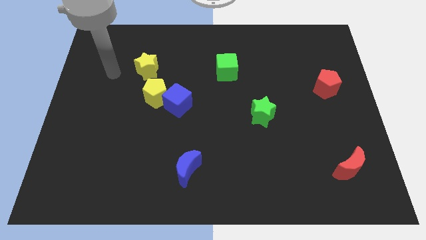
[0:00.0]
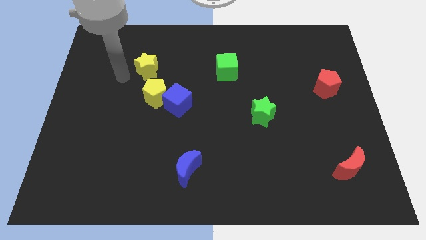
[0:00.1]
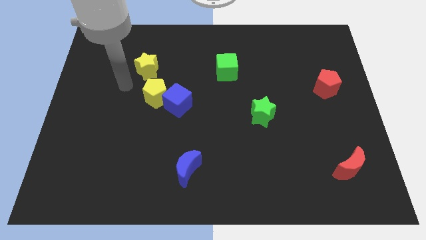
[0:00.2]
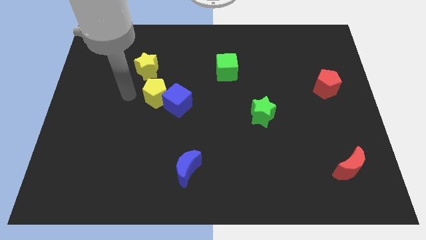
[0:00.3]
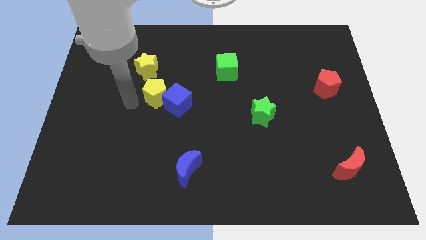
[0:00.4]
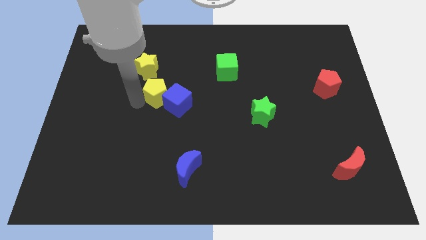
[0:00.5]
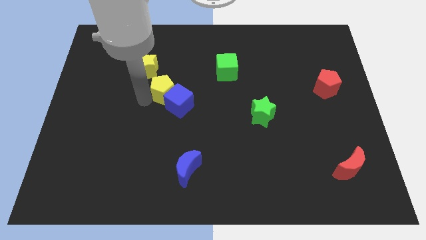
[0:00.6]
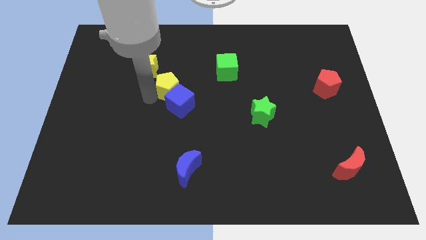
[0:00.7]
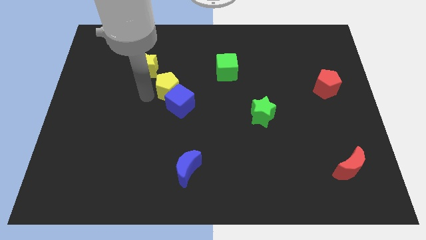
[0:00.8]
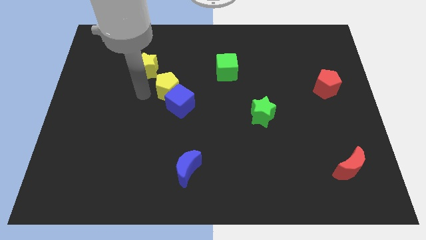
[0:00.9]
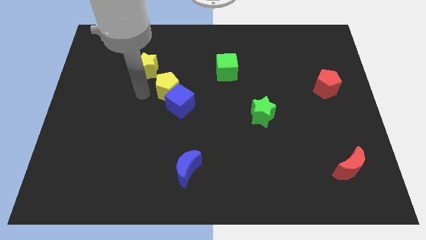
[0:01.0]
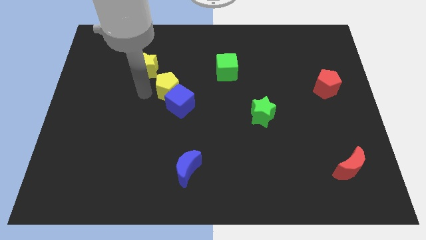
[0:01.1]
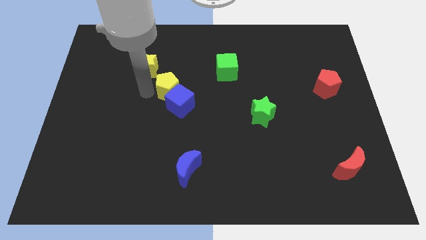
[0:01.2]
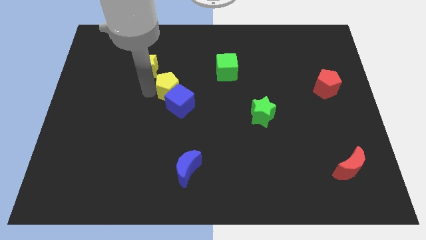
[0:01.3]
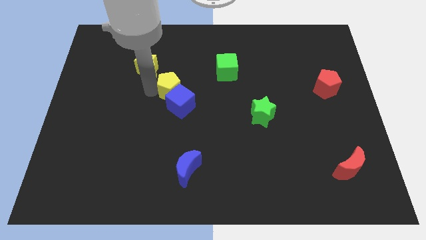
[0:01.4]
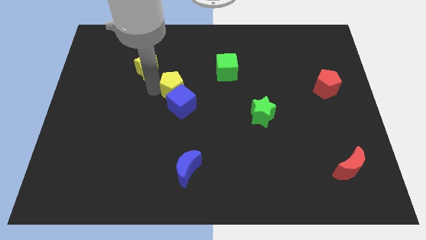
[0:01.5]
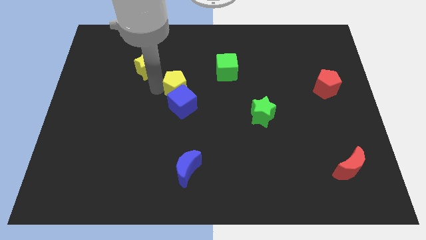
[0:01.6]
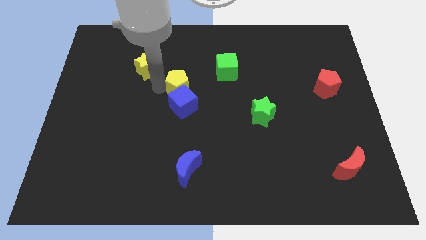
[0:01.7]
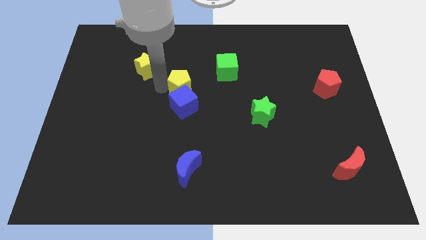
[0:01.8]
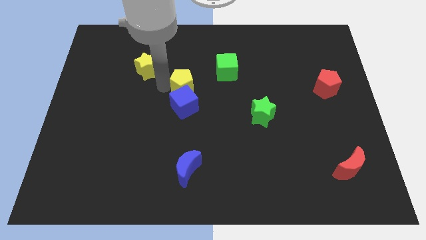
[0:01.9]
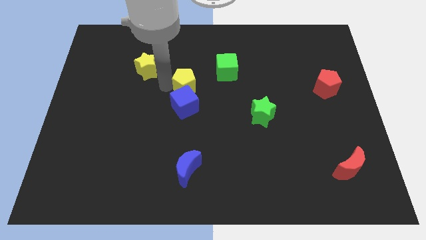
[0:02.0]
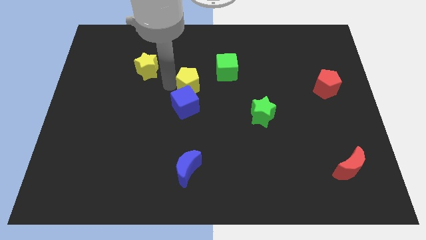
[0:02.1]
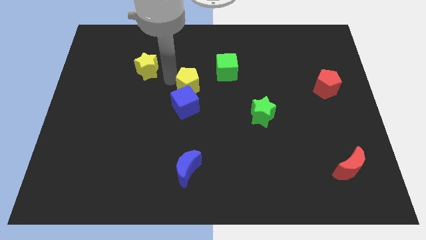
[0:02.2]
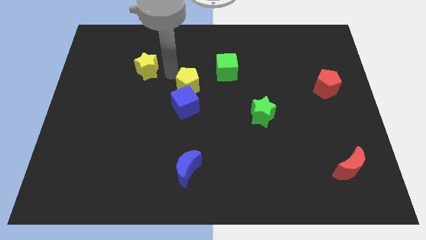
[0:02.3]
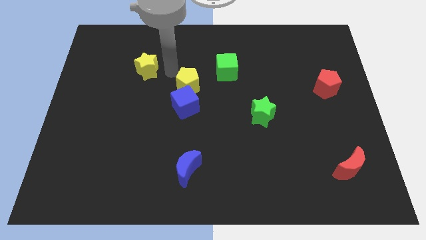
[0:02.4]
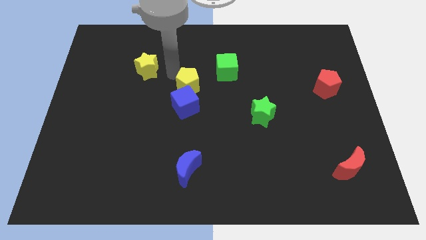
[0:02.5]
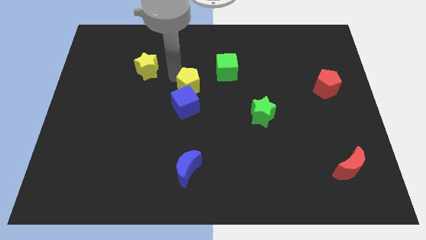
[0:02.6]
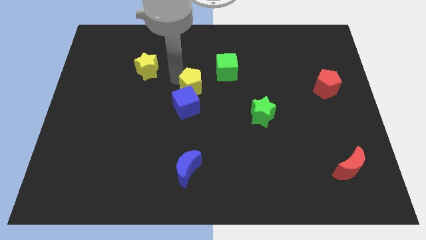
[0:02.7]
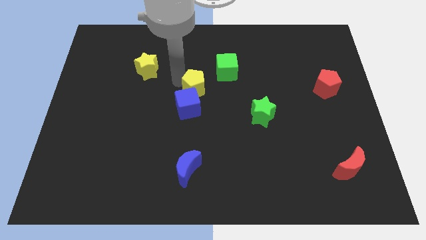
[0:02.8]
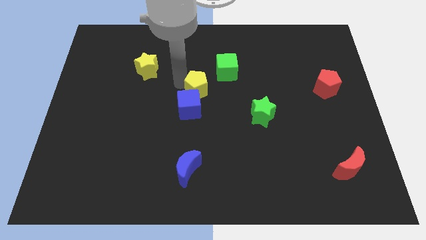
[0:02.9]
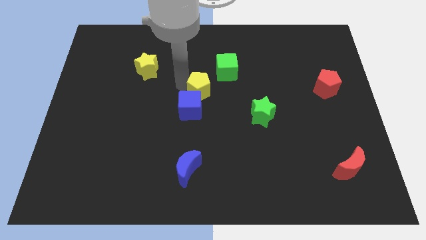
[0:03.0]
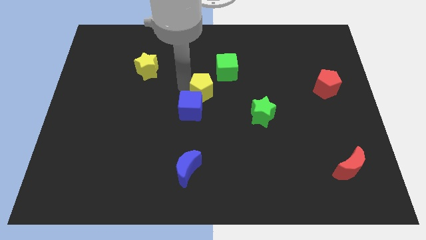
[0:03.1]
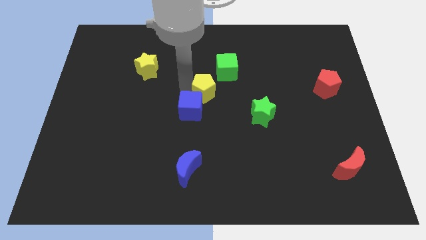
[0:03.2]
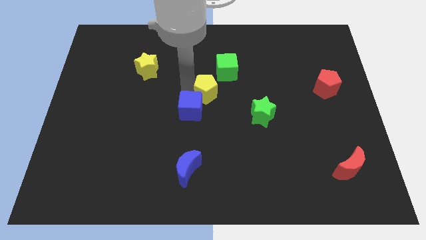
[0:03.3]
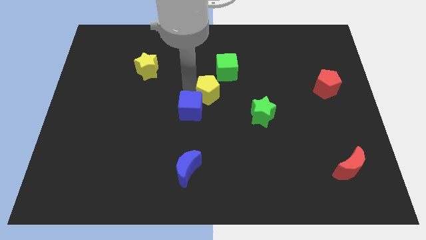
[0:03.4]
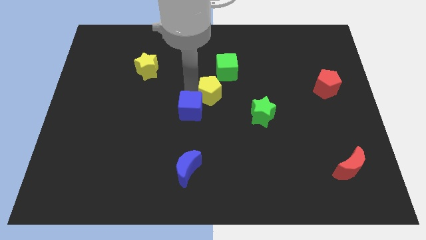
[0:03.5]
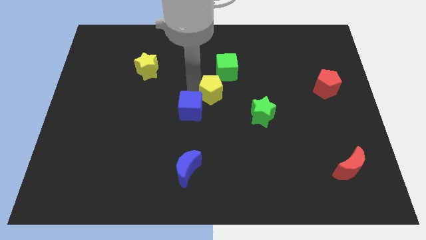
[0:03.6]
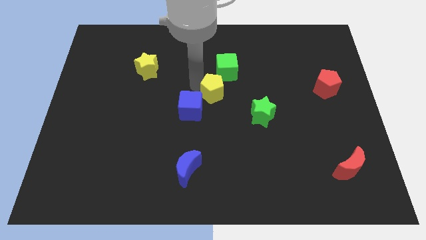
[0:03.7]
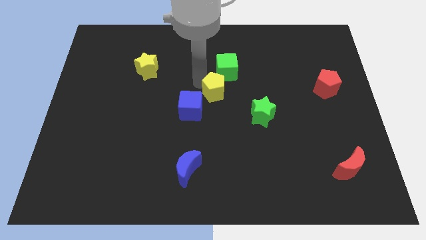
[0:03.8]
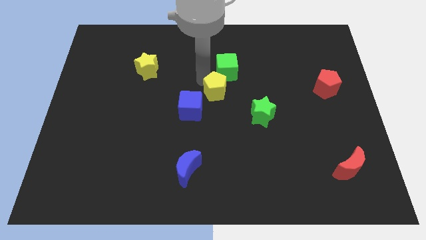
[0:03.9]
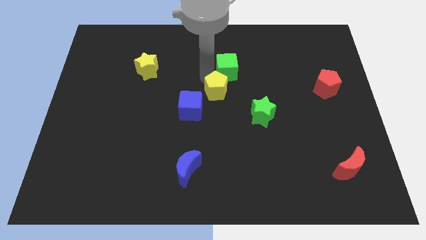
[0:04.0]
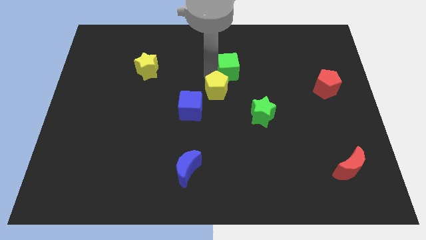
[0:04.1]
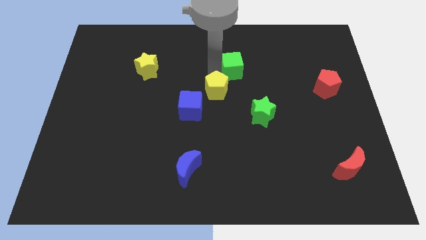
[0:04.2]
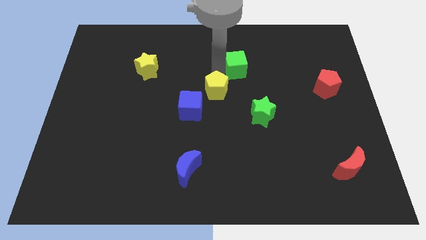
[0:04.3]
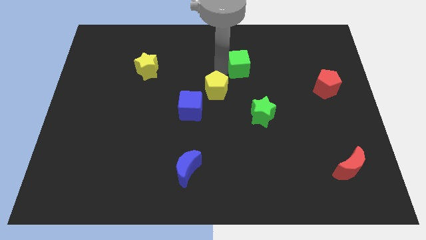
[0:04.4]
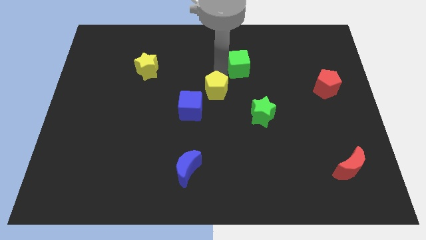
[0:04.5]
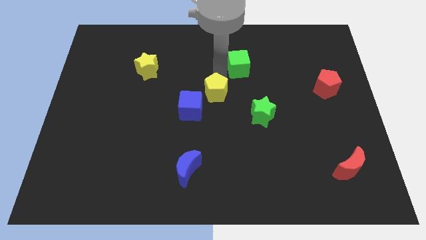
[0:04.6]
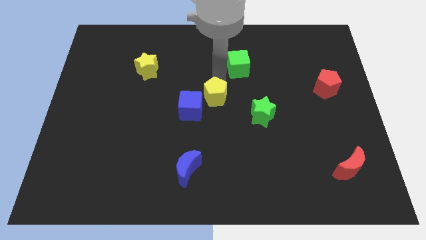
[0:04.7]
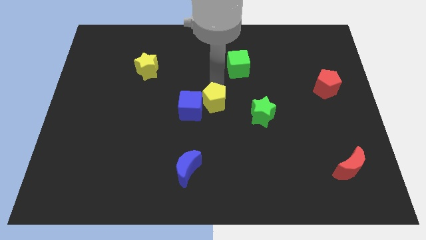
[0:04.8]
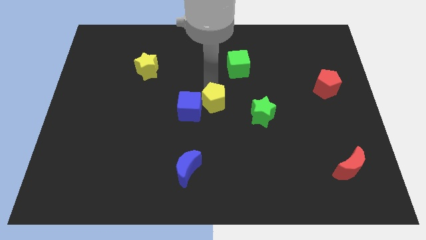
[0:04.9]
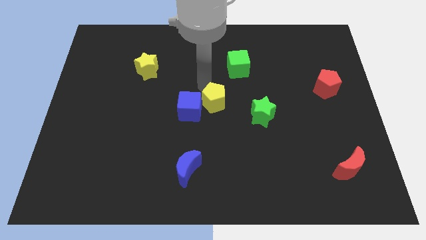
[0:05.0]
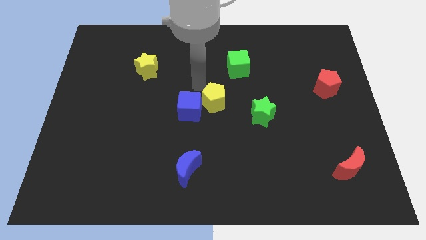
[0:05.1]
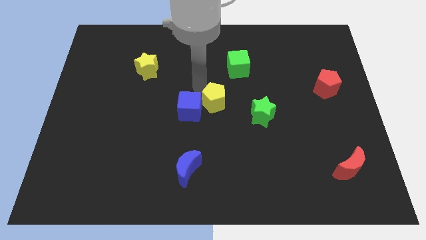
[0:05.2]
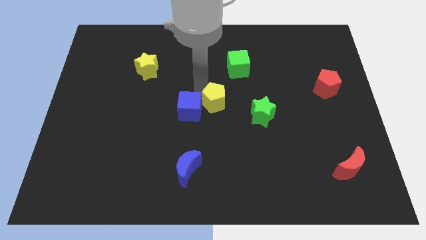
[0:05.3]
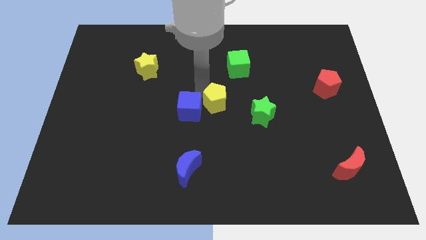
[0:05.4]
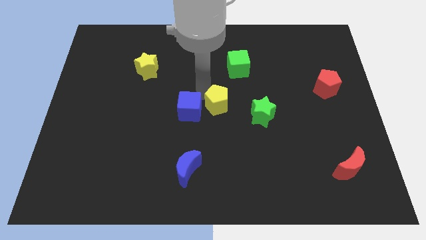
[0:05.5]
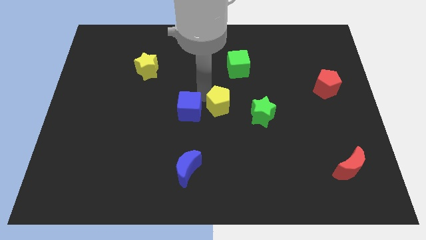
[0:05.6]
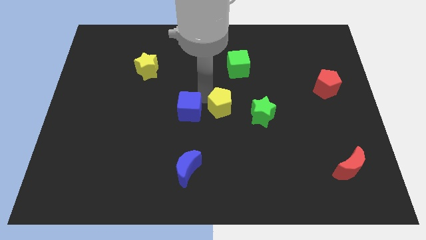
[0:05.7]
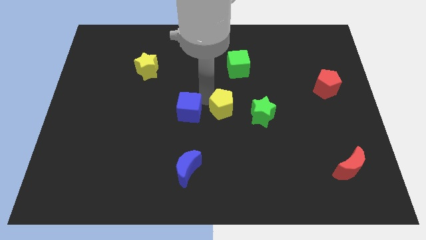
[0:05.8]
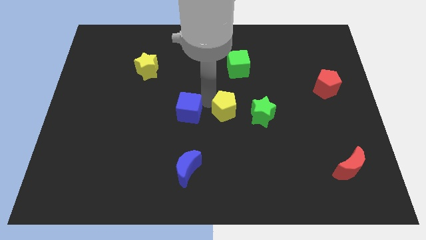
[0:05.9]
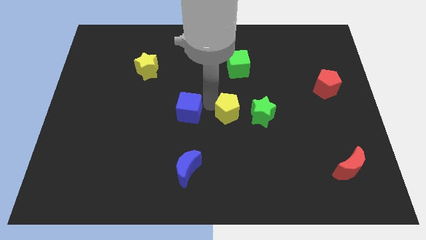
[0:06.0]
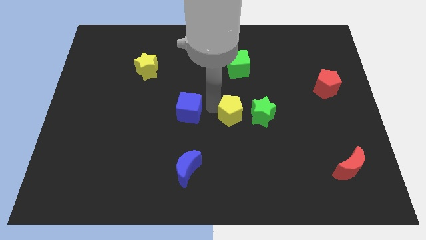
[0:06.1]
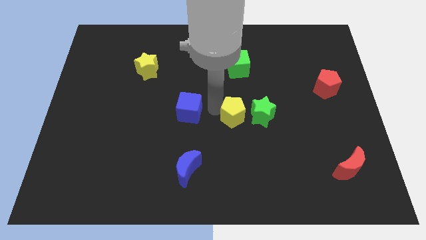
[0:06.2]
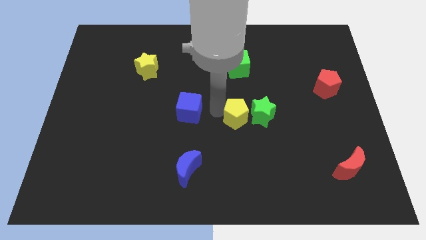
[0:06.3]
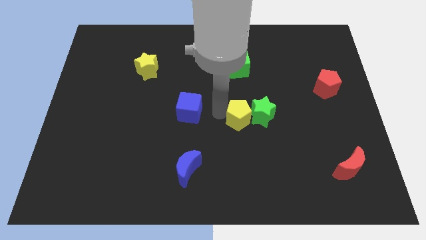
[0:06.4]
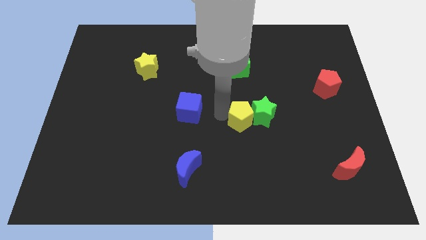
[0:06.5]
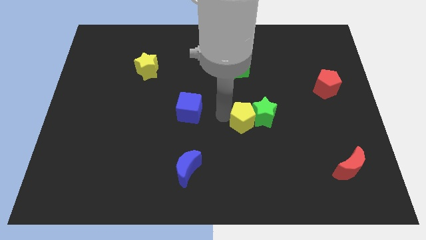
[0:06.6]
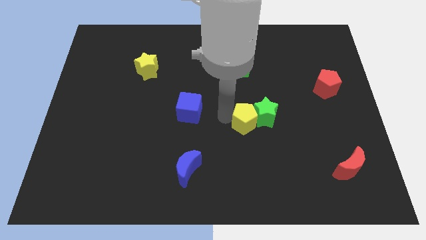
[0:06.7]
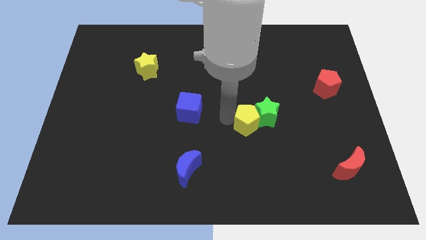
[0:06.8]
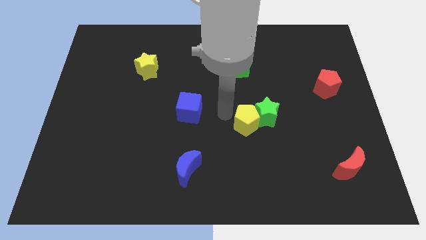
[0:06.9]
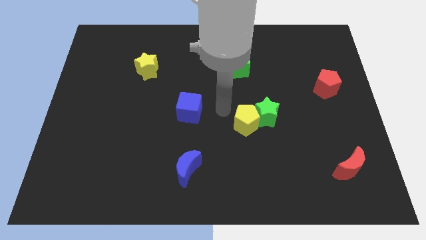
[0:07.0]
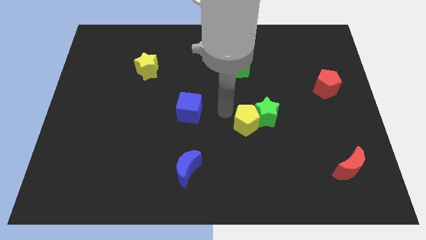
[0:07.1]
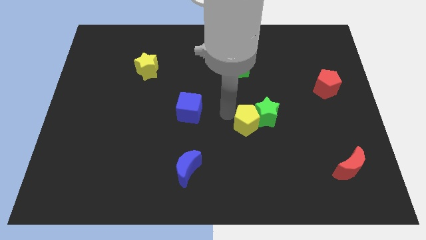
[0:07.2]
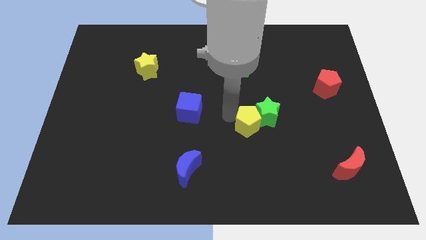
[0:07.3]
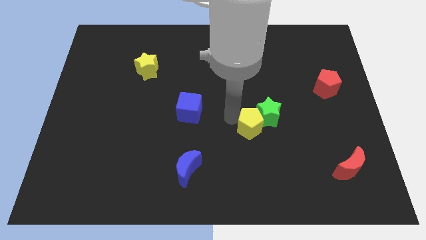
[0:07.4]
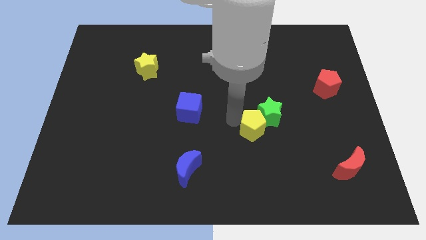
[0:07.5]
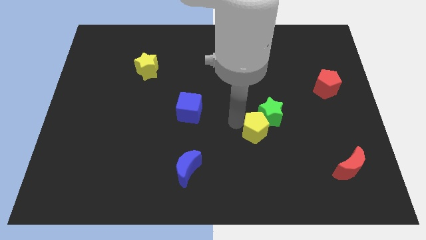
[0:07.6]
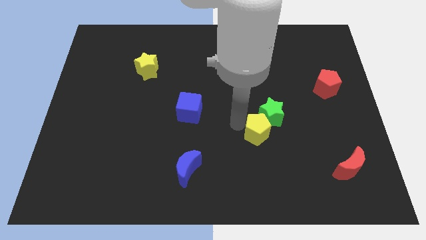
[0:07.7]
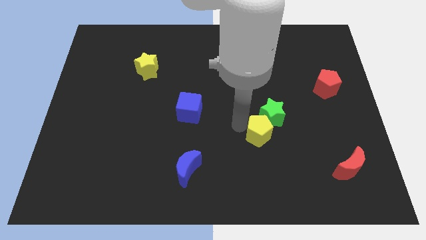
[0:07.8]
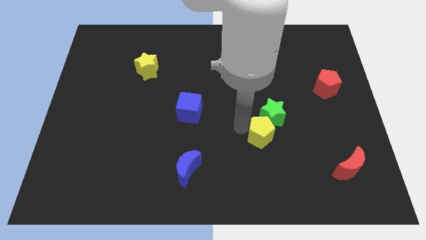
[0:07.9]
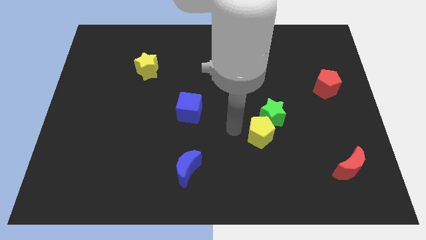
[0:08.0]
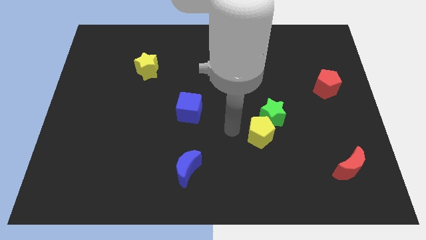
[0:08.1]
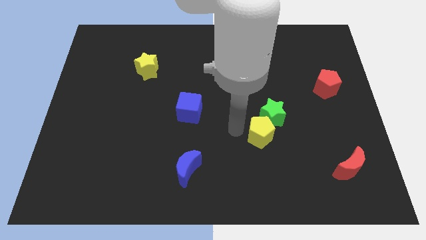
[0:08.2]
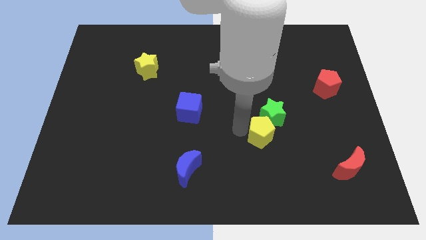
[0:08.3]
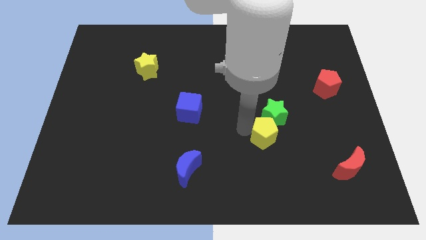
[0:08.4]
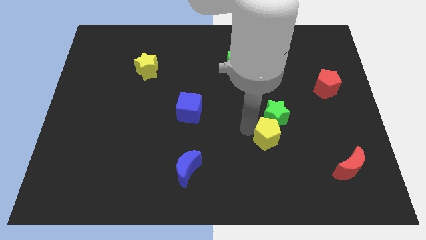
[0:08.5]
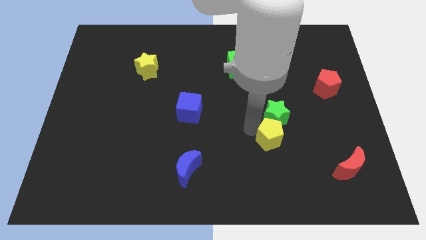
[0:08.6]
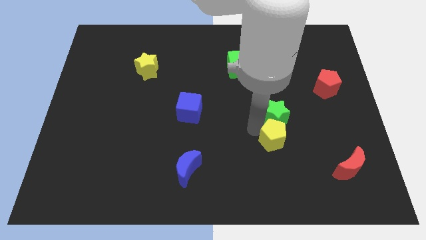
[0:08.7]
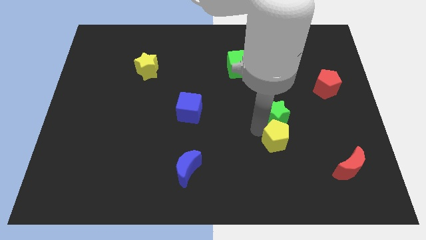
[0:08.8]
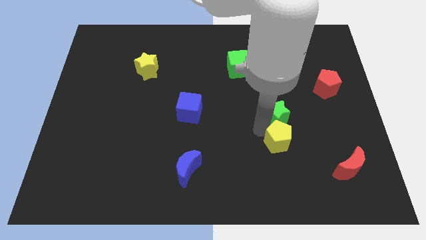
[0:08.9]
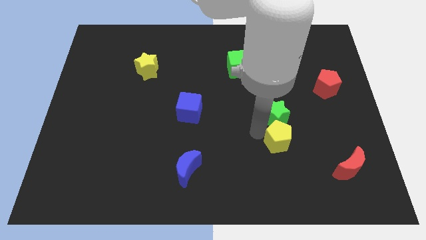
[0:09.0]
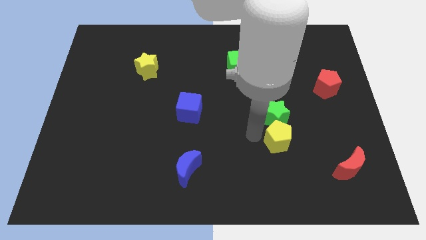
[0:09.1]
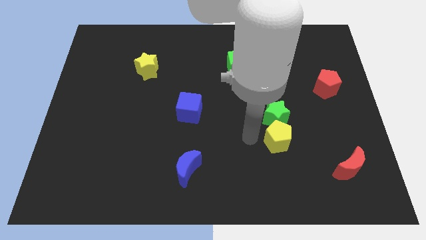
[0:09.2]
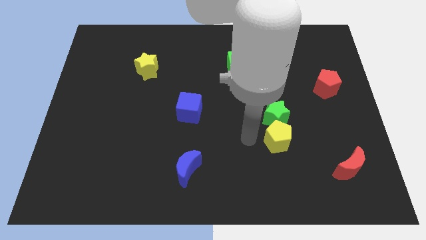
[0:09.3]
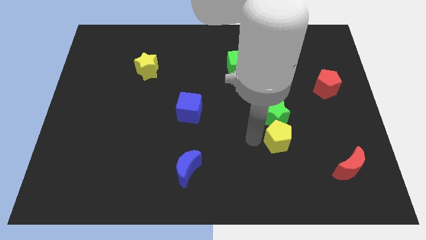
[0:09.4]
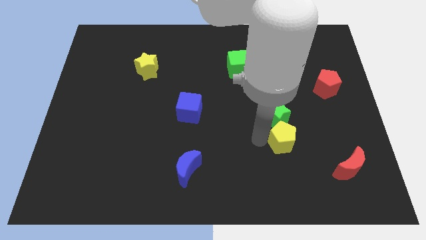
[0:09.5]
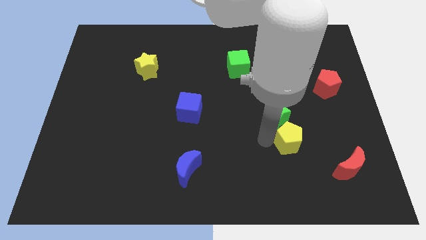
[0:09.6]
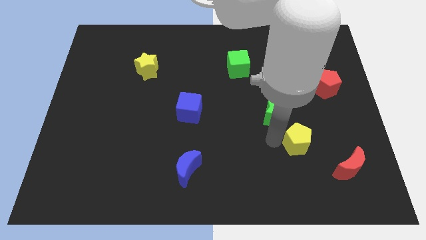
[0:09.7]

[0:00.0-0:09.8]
move the yellow pentagon to the top left of the red moon
